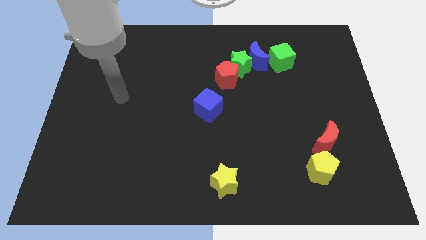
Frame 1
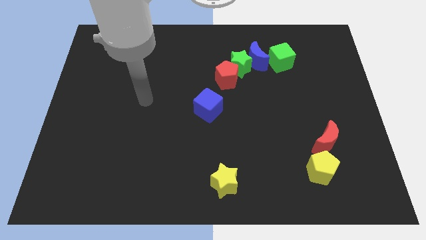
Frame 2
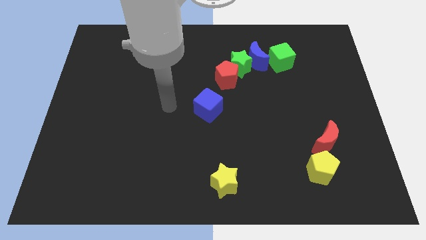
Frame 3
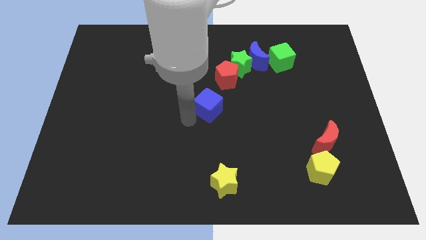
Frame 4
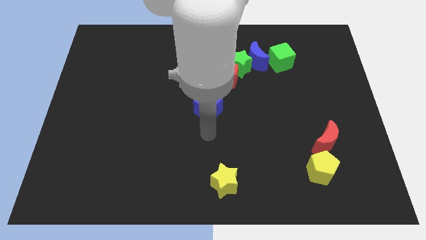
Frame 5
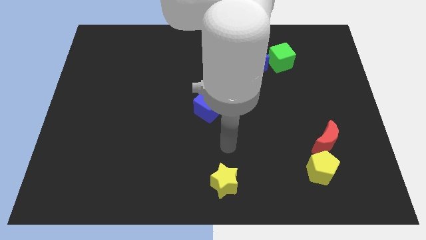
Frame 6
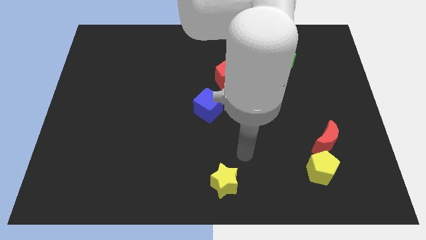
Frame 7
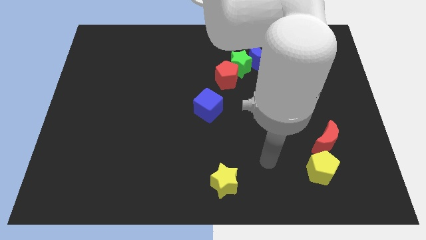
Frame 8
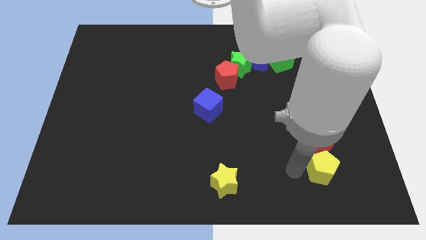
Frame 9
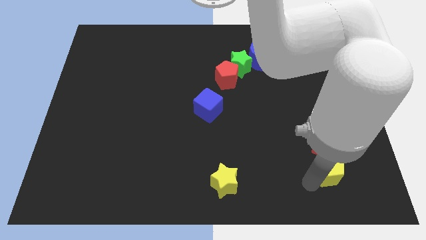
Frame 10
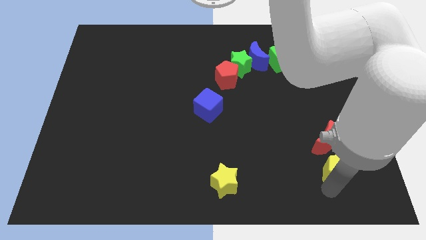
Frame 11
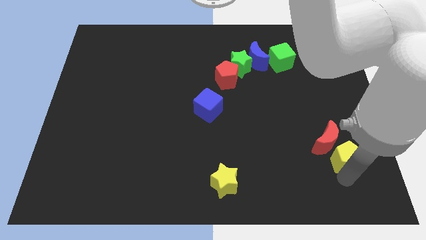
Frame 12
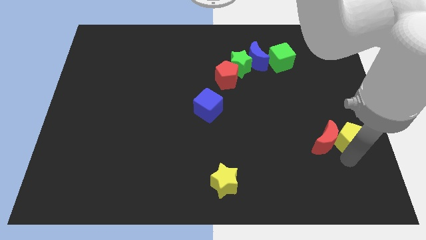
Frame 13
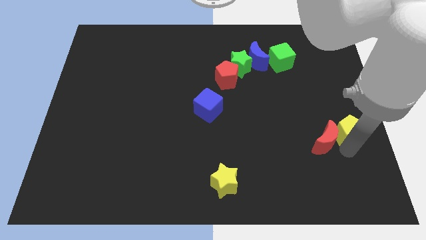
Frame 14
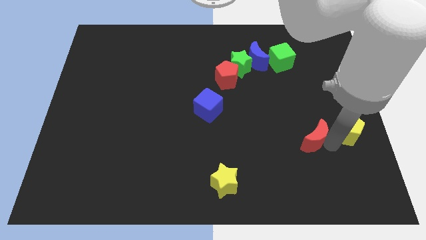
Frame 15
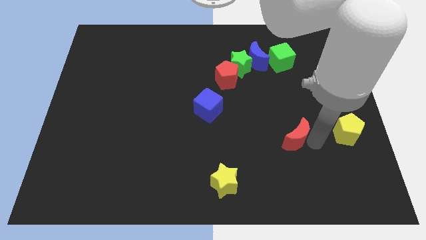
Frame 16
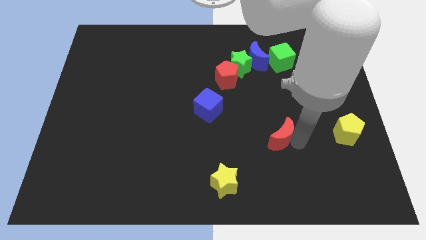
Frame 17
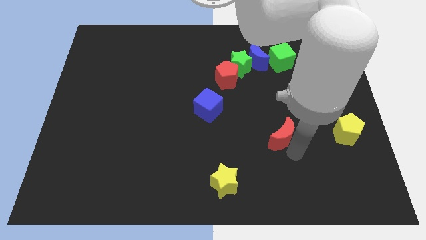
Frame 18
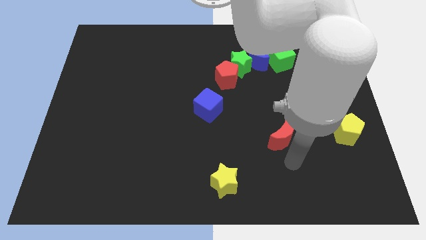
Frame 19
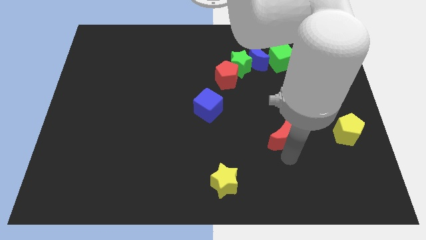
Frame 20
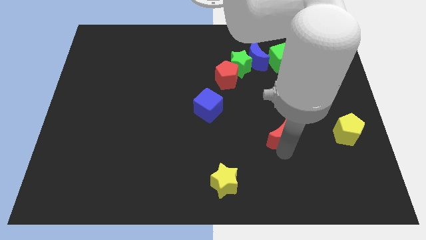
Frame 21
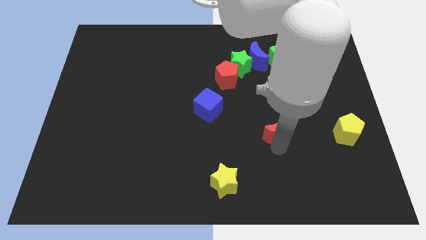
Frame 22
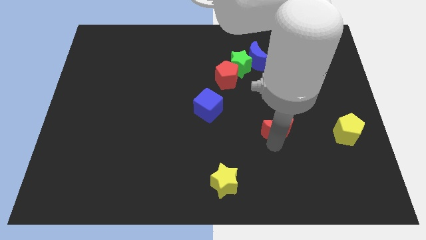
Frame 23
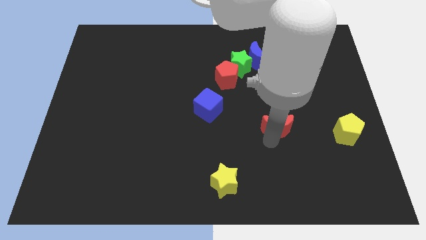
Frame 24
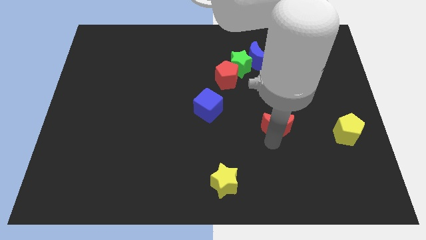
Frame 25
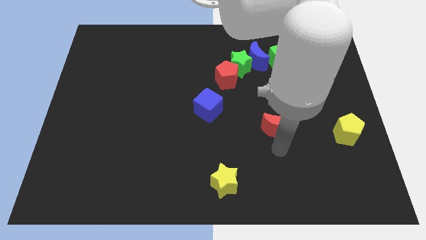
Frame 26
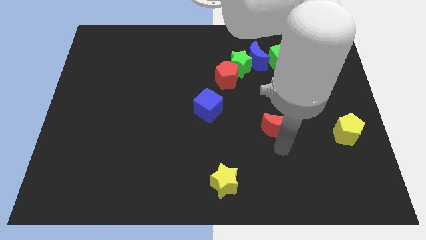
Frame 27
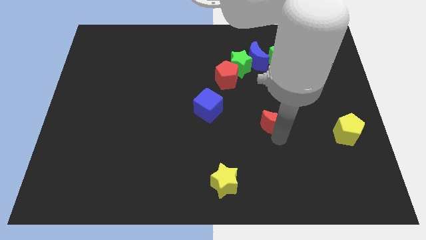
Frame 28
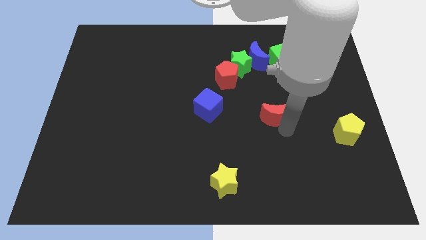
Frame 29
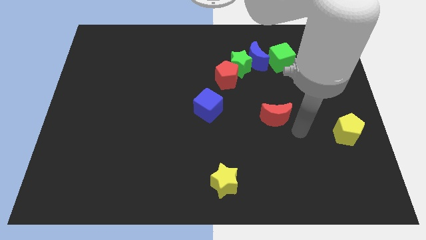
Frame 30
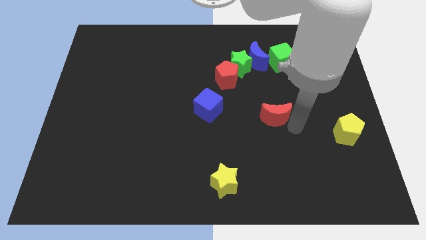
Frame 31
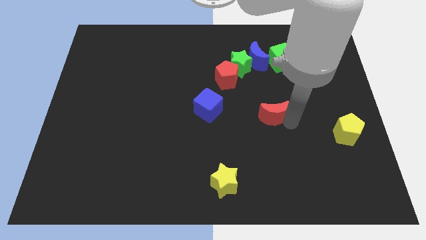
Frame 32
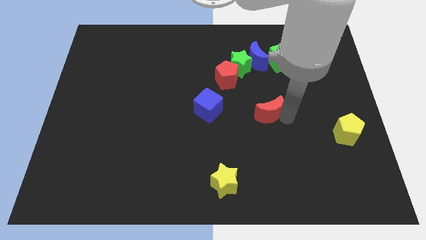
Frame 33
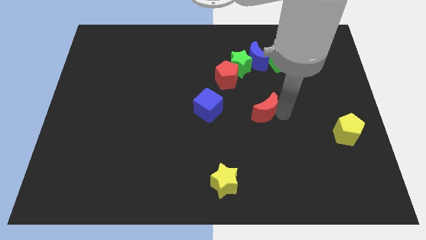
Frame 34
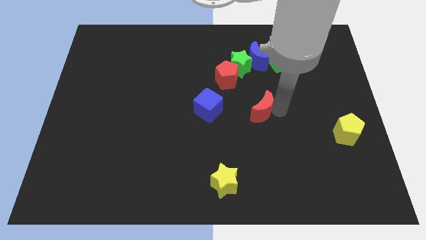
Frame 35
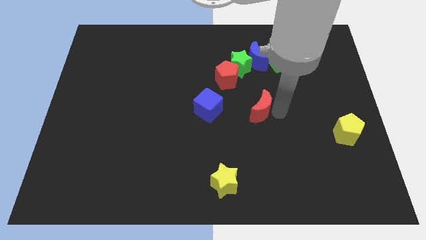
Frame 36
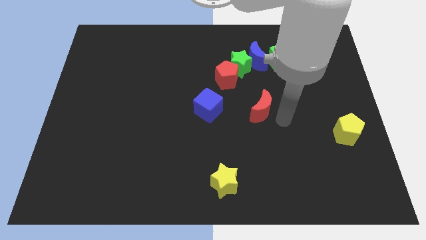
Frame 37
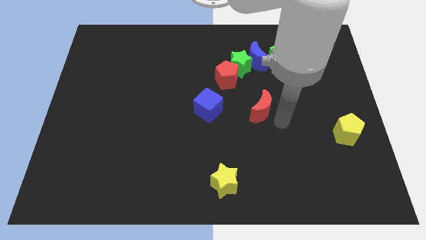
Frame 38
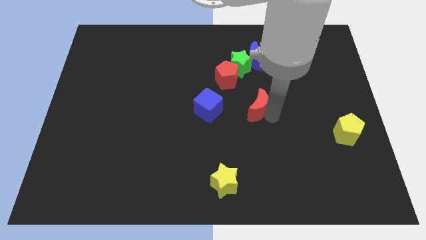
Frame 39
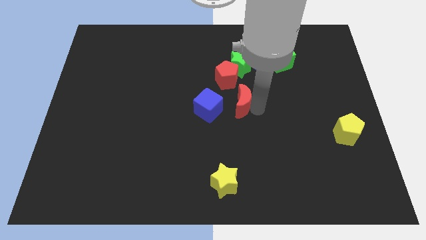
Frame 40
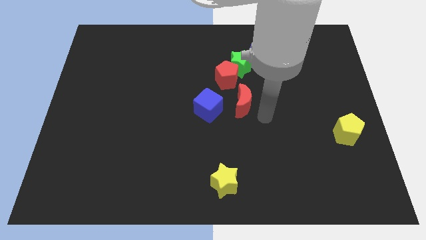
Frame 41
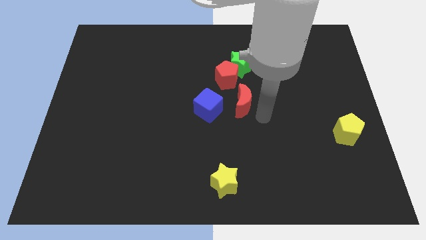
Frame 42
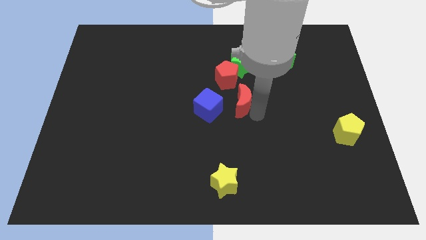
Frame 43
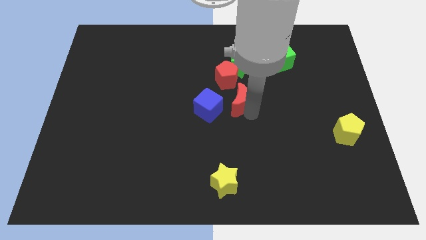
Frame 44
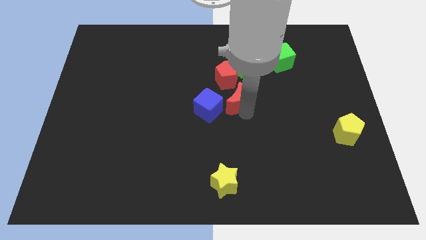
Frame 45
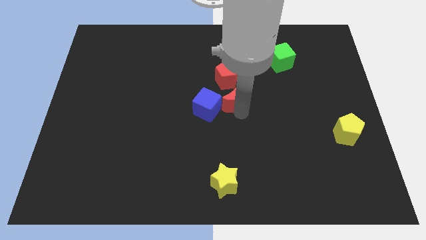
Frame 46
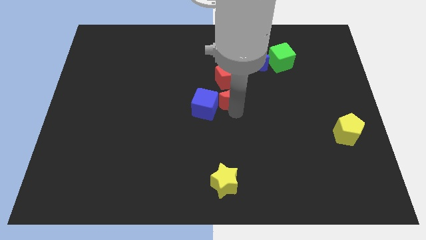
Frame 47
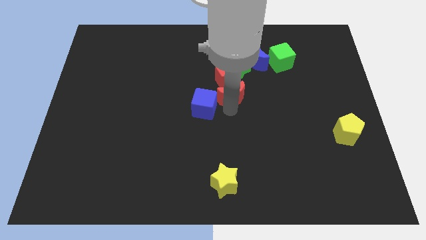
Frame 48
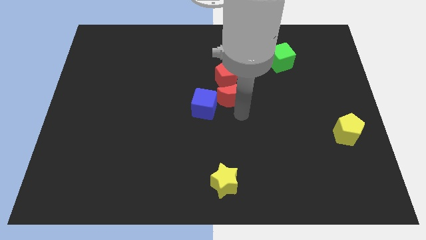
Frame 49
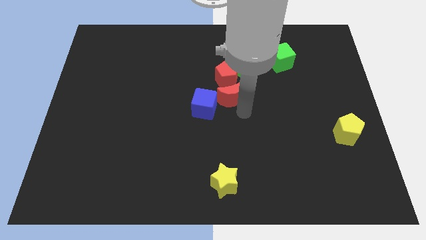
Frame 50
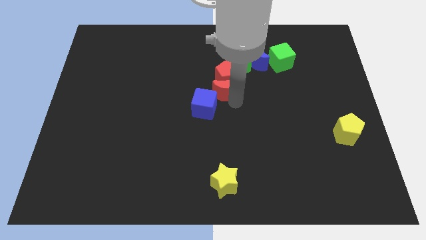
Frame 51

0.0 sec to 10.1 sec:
slide the red moon to the bottom left of the green star

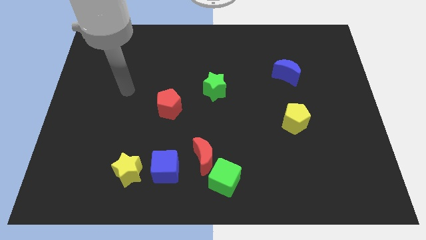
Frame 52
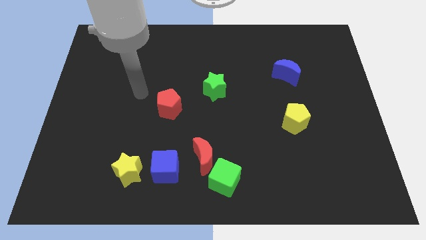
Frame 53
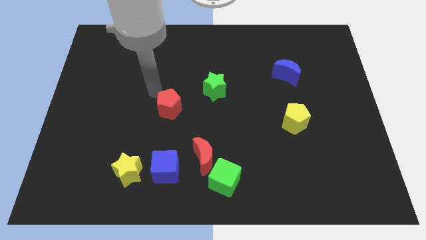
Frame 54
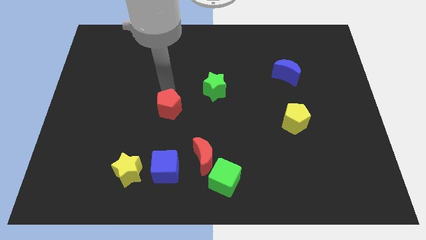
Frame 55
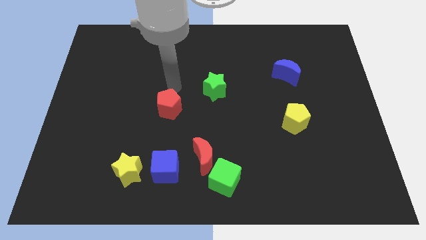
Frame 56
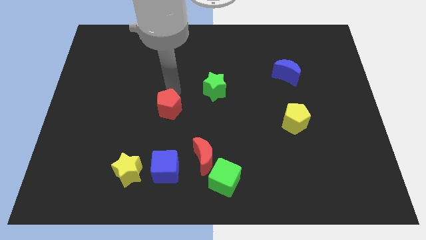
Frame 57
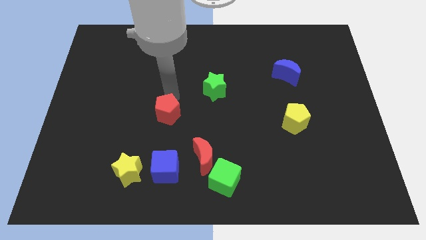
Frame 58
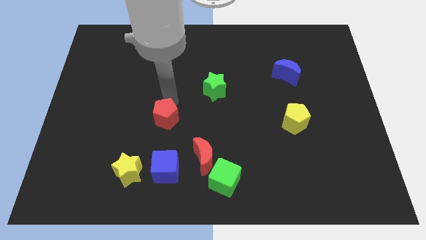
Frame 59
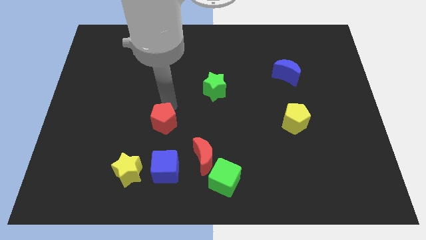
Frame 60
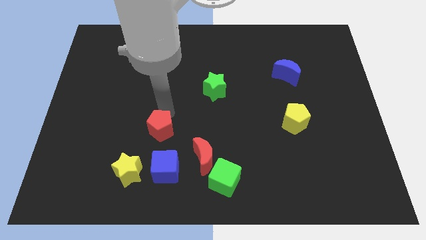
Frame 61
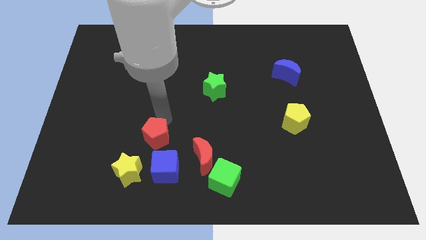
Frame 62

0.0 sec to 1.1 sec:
push the red pentagon diagonally up and to the right of the yellow star
